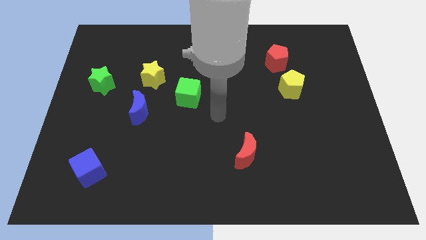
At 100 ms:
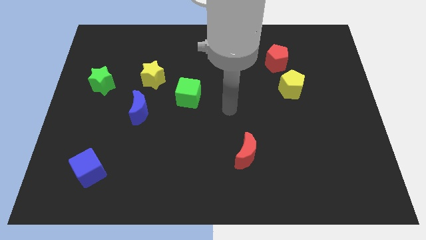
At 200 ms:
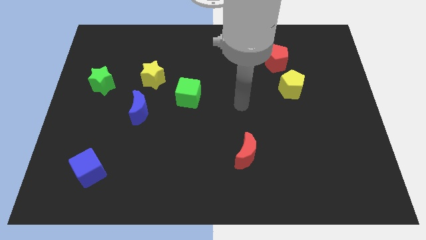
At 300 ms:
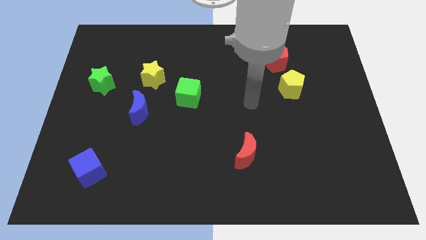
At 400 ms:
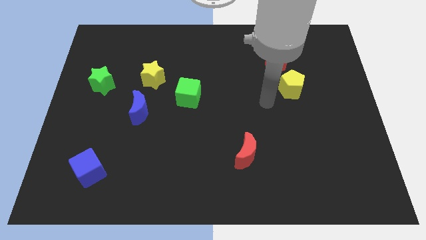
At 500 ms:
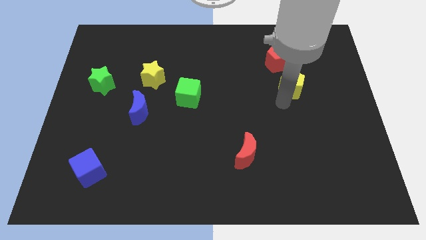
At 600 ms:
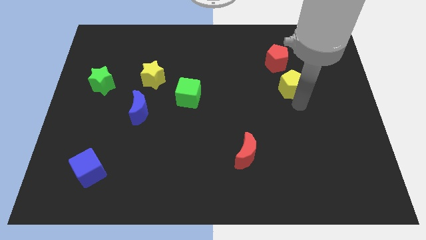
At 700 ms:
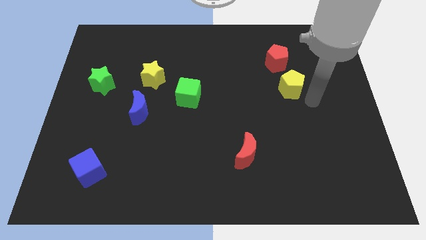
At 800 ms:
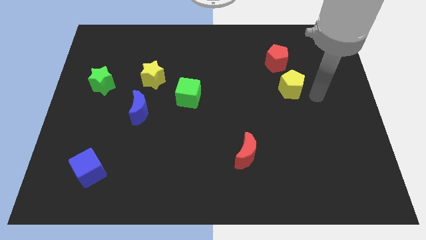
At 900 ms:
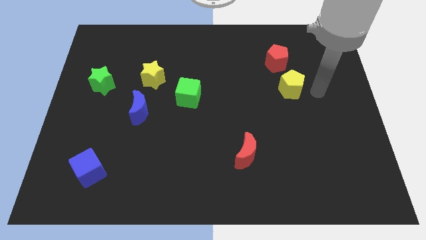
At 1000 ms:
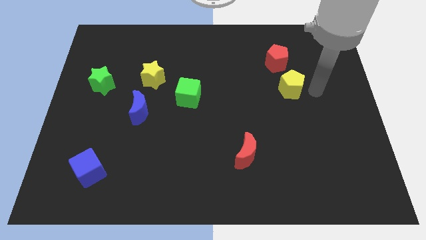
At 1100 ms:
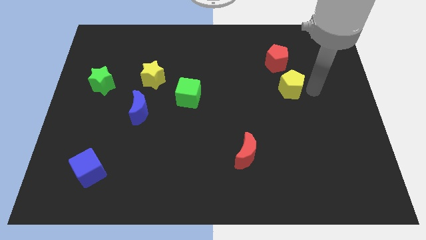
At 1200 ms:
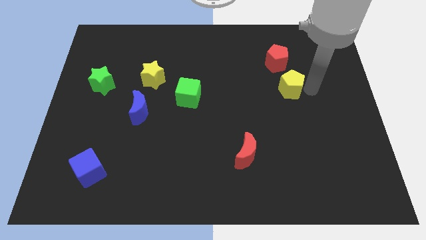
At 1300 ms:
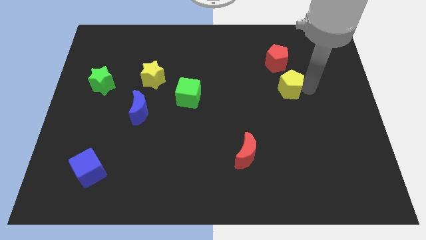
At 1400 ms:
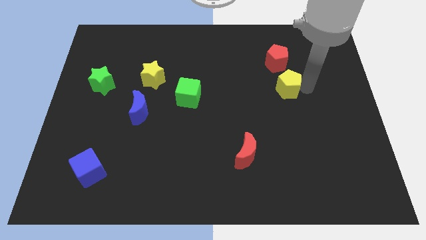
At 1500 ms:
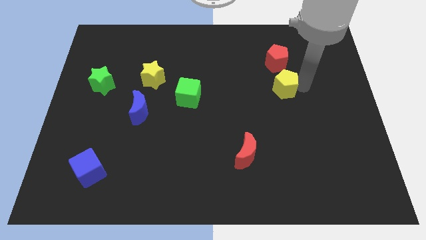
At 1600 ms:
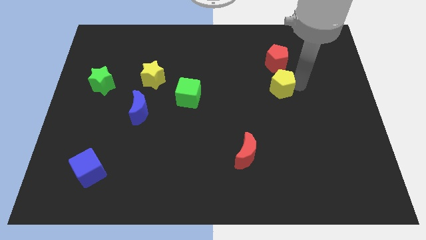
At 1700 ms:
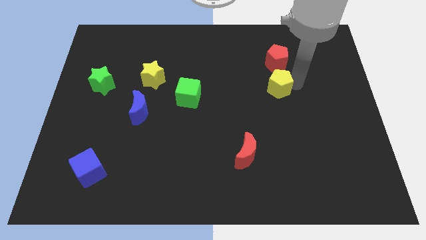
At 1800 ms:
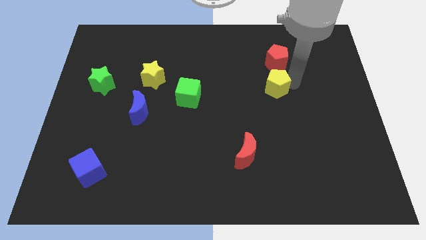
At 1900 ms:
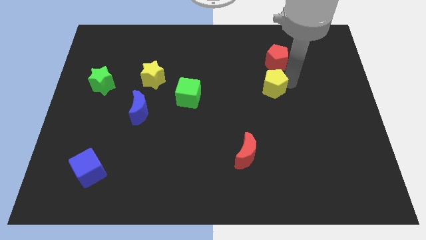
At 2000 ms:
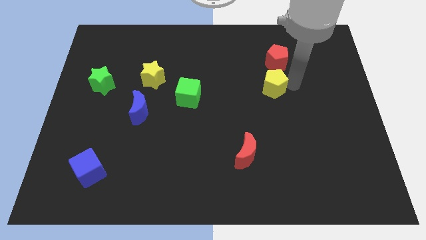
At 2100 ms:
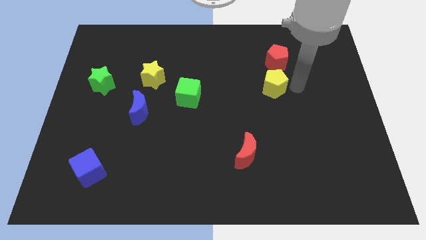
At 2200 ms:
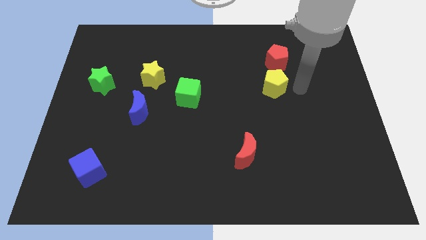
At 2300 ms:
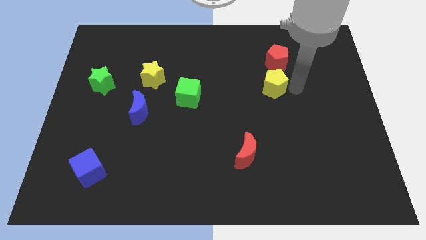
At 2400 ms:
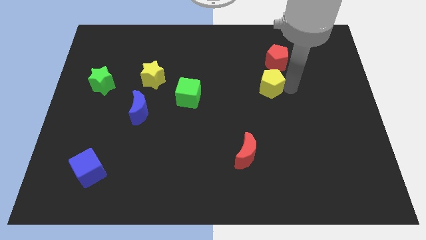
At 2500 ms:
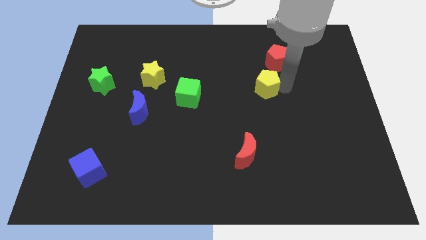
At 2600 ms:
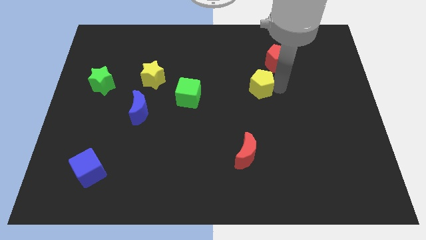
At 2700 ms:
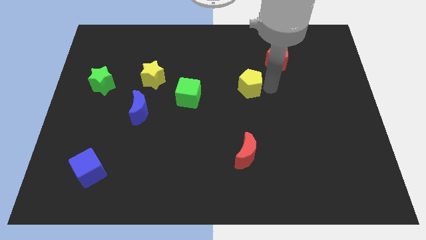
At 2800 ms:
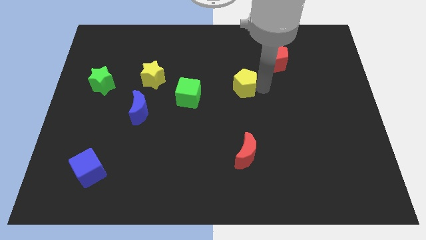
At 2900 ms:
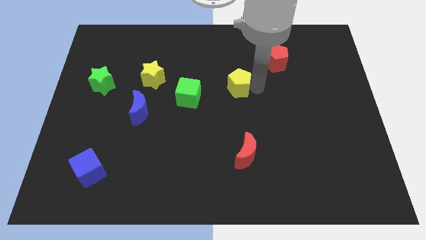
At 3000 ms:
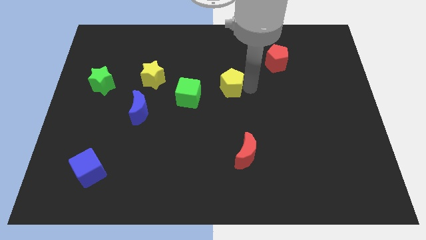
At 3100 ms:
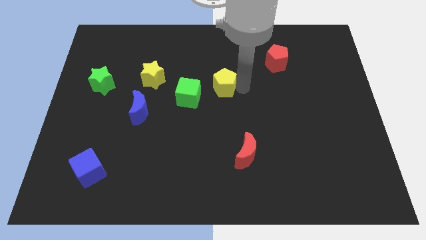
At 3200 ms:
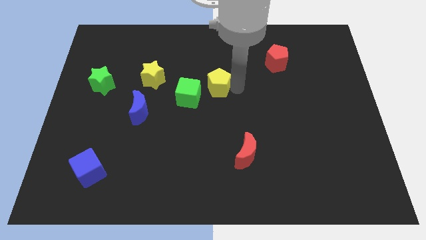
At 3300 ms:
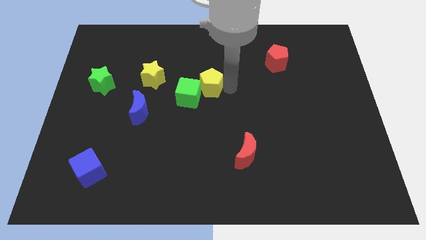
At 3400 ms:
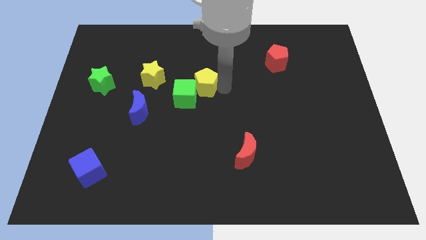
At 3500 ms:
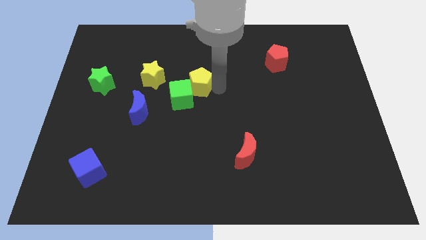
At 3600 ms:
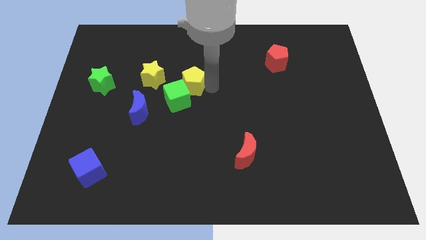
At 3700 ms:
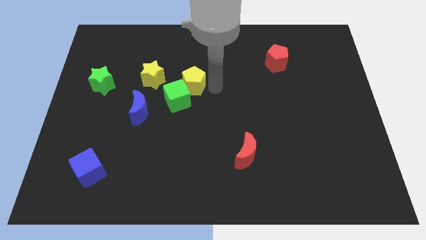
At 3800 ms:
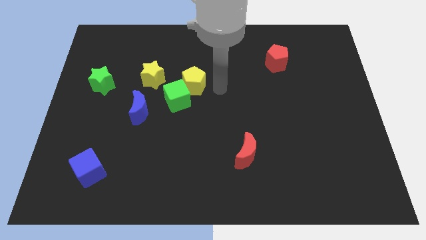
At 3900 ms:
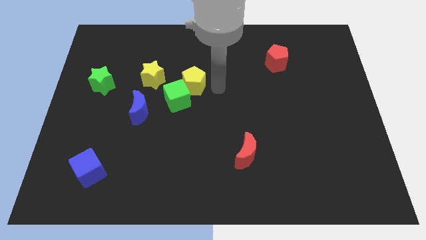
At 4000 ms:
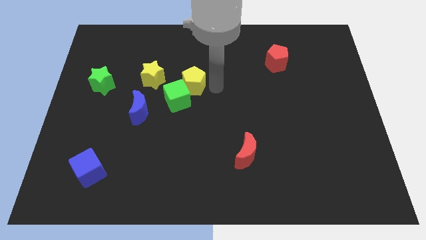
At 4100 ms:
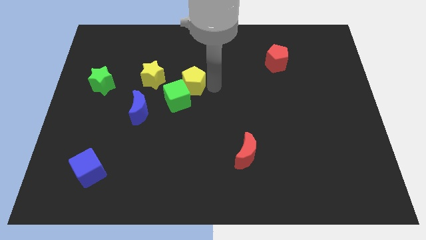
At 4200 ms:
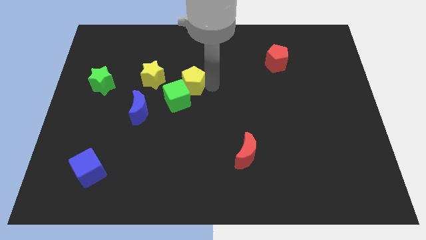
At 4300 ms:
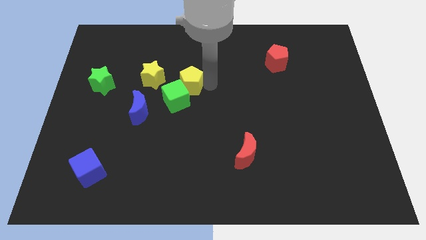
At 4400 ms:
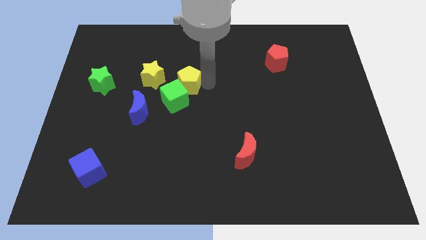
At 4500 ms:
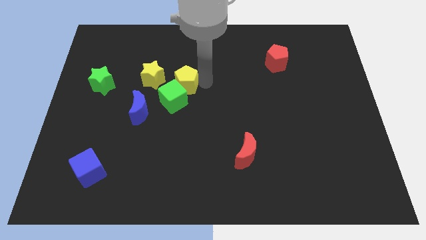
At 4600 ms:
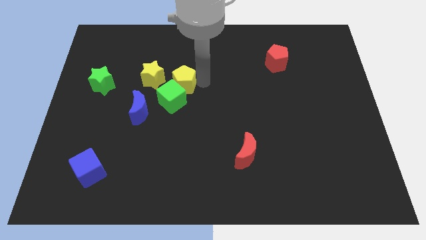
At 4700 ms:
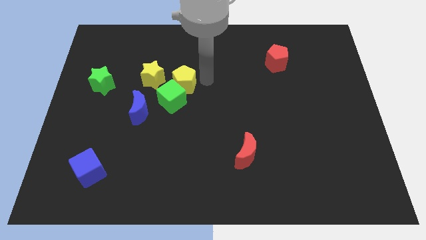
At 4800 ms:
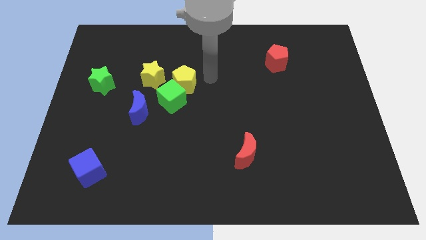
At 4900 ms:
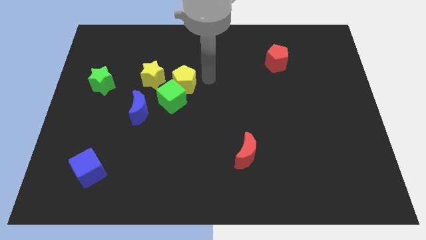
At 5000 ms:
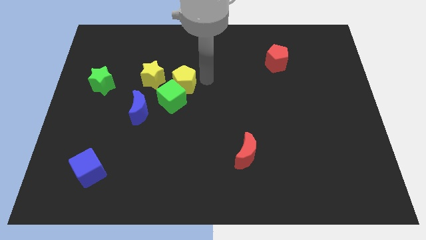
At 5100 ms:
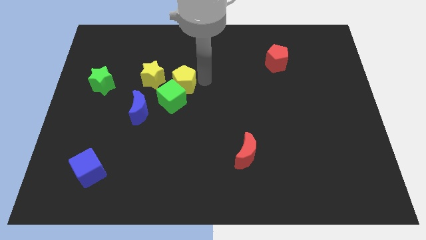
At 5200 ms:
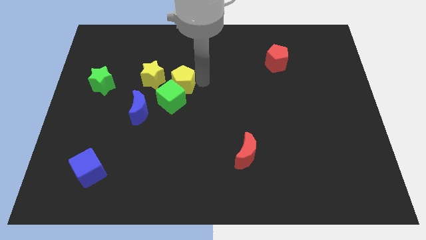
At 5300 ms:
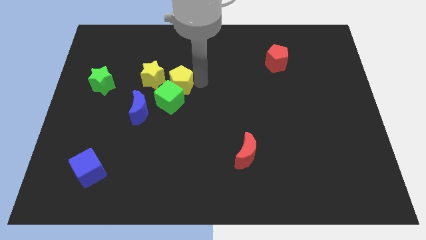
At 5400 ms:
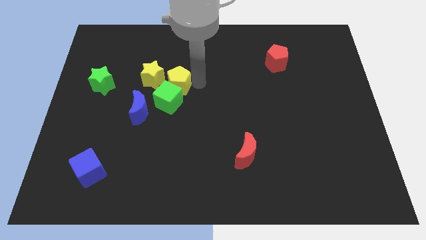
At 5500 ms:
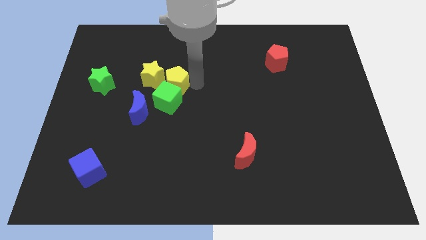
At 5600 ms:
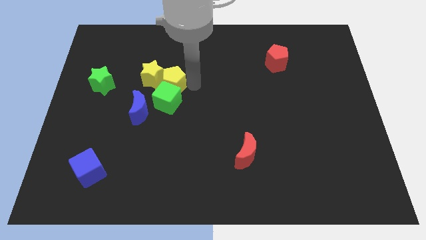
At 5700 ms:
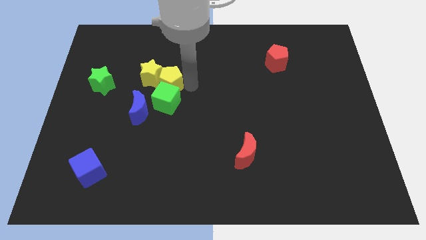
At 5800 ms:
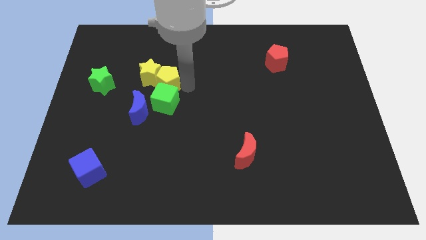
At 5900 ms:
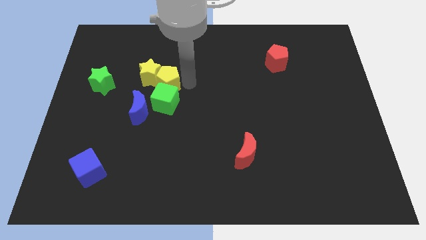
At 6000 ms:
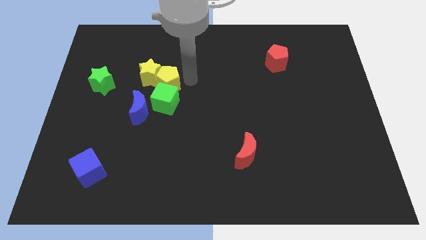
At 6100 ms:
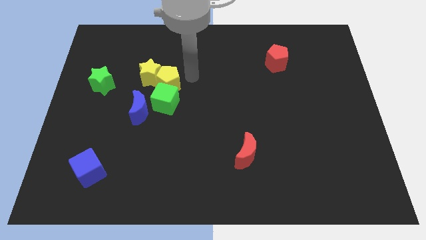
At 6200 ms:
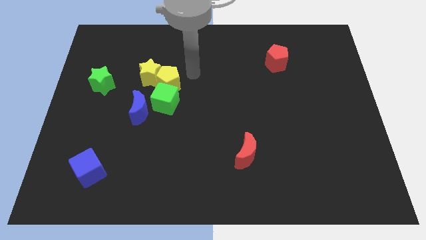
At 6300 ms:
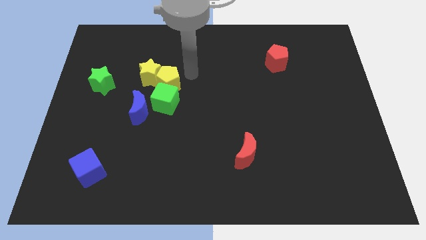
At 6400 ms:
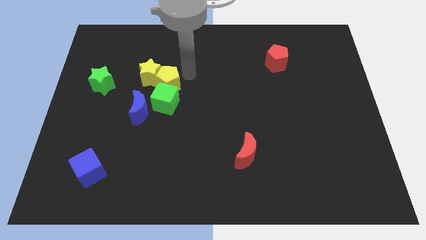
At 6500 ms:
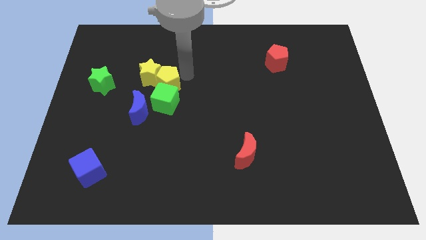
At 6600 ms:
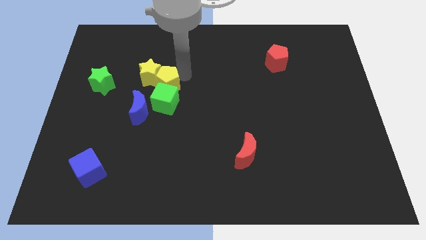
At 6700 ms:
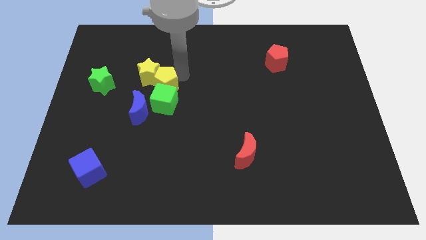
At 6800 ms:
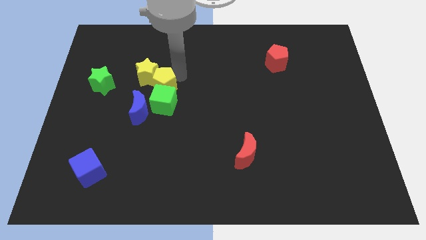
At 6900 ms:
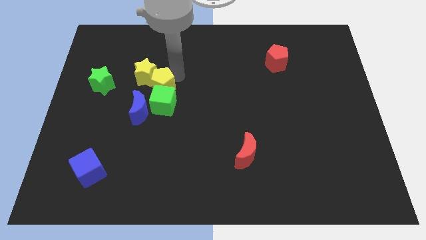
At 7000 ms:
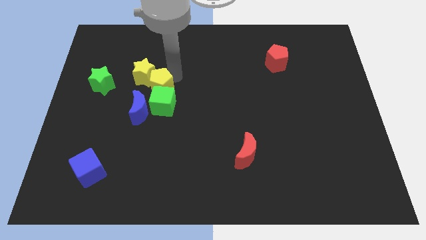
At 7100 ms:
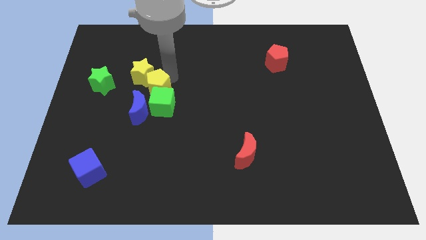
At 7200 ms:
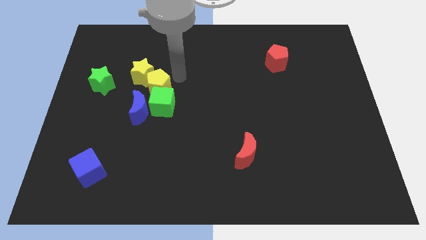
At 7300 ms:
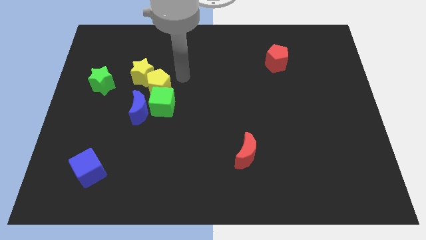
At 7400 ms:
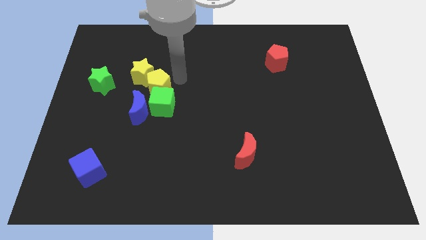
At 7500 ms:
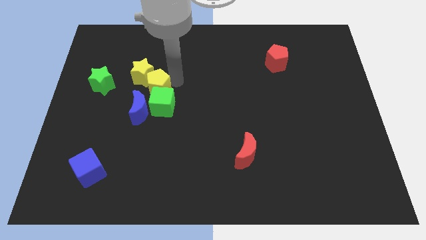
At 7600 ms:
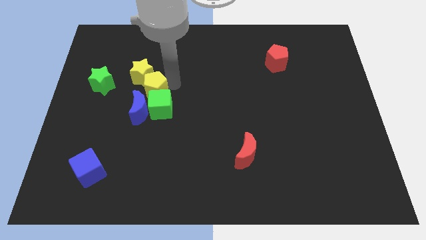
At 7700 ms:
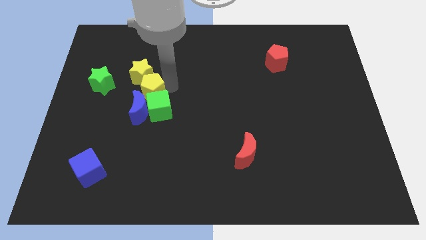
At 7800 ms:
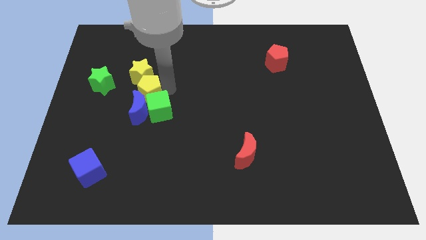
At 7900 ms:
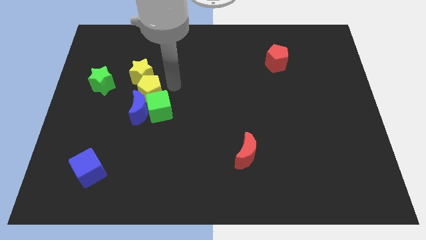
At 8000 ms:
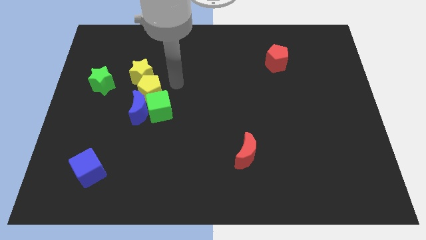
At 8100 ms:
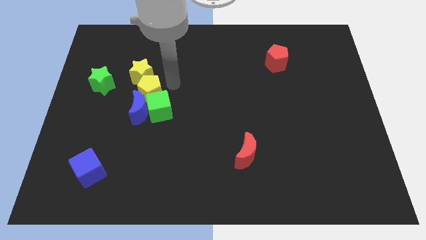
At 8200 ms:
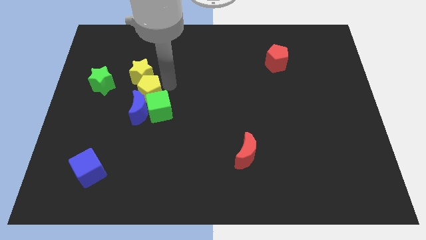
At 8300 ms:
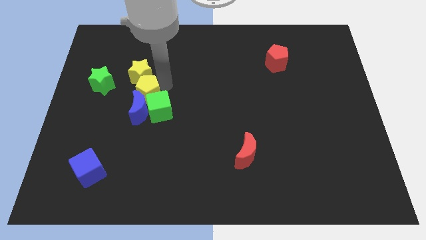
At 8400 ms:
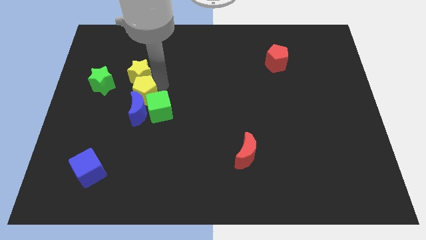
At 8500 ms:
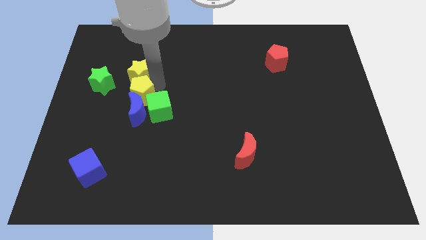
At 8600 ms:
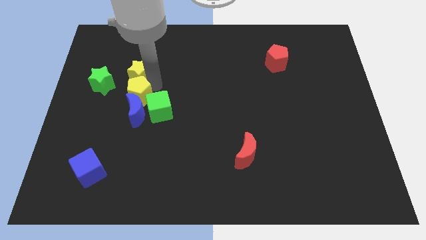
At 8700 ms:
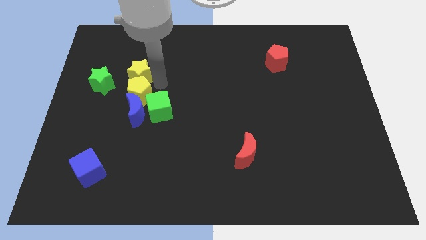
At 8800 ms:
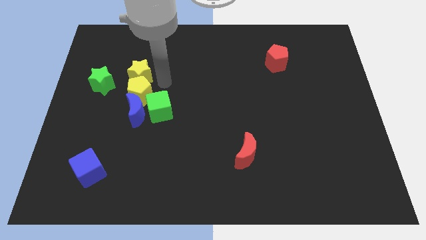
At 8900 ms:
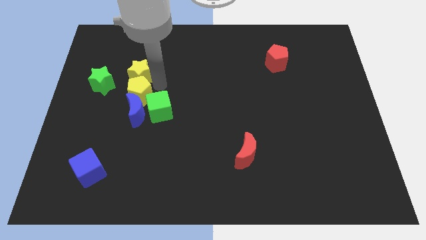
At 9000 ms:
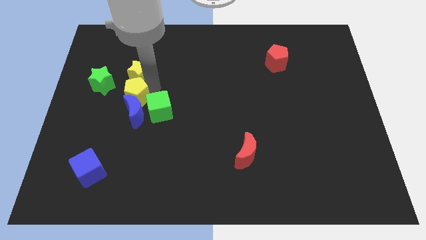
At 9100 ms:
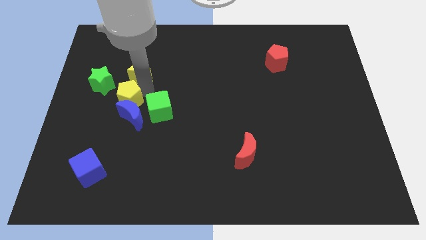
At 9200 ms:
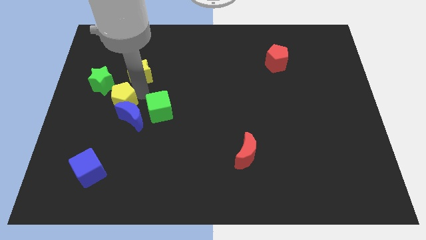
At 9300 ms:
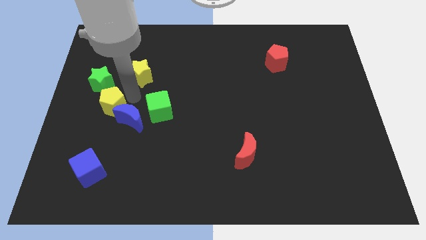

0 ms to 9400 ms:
put the yellow pentagon to the left of the blue moon
